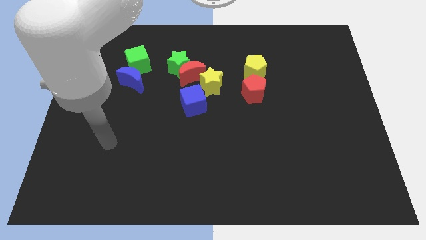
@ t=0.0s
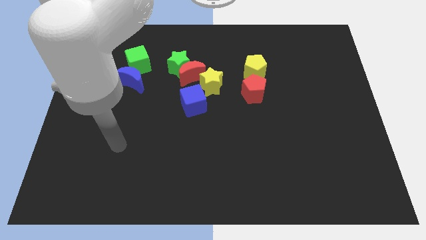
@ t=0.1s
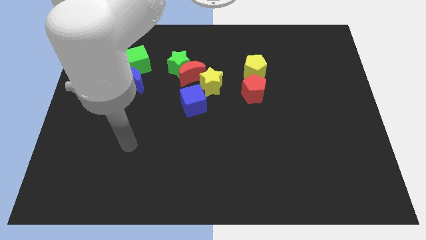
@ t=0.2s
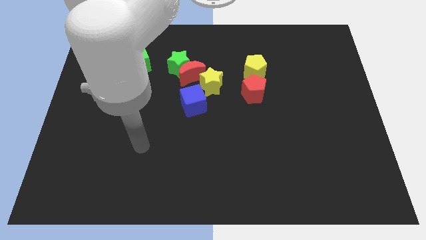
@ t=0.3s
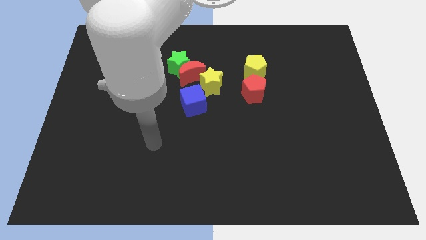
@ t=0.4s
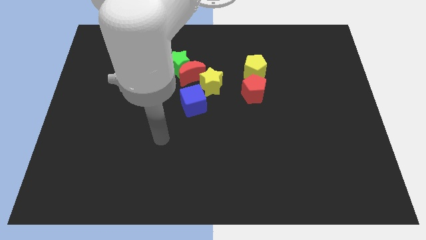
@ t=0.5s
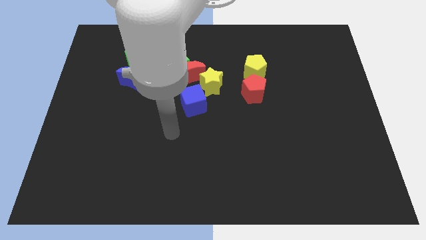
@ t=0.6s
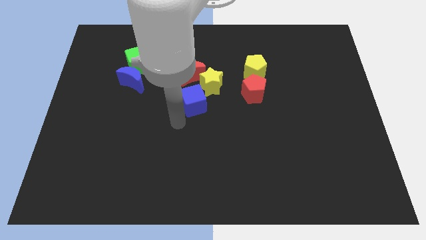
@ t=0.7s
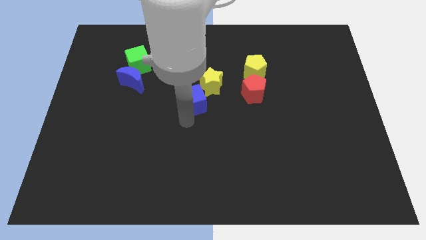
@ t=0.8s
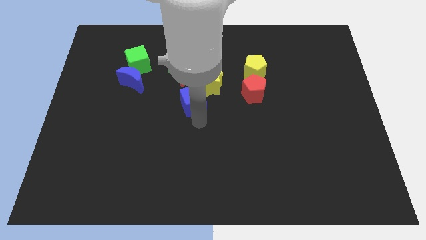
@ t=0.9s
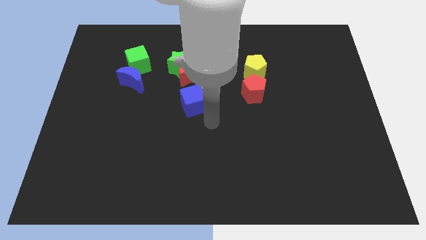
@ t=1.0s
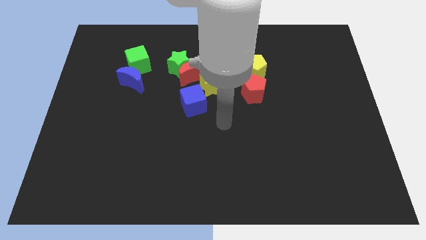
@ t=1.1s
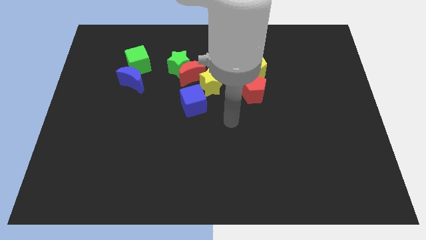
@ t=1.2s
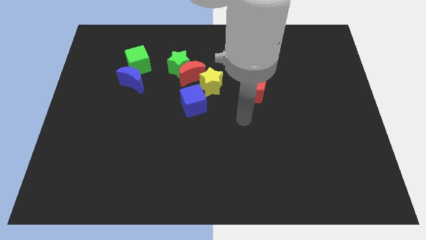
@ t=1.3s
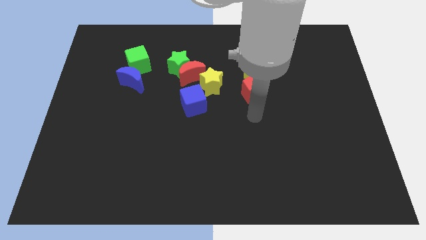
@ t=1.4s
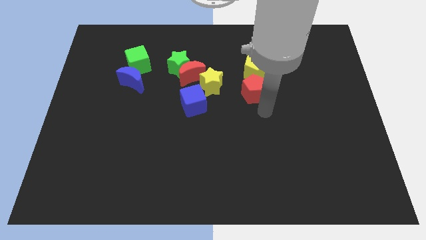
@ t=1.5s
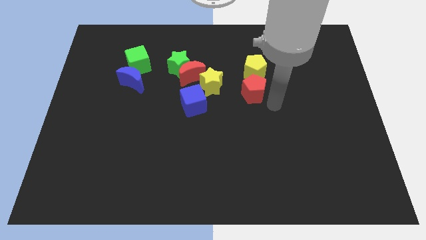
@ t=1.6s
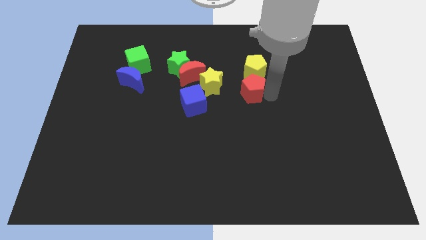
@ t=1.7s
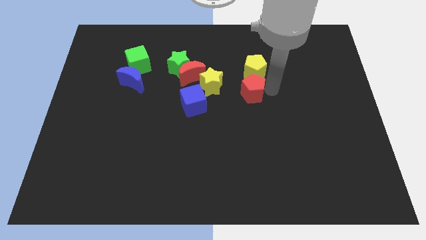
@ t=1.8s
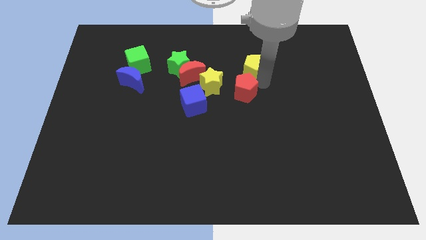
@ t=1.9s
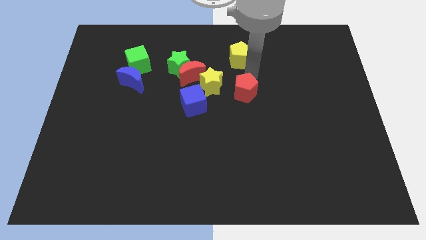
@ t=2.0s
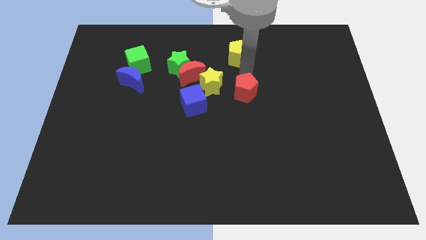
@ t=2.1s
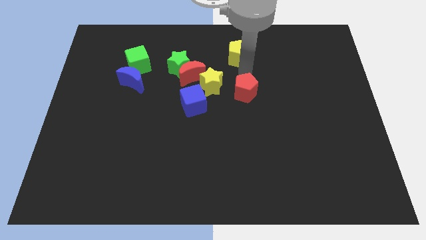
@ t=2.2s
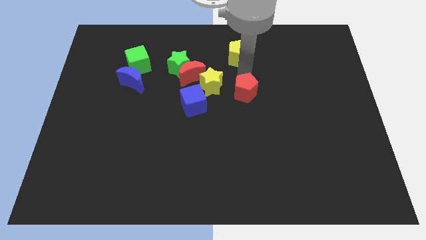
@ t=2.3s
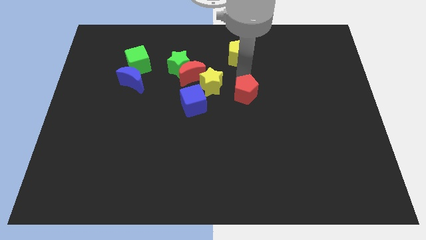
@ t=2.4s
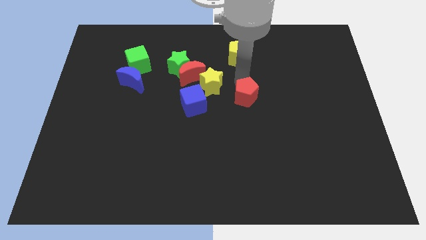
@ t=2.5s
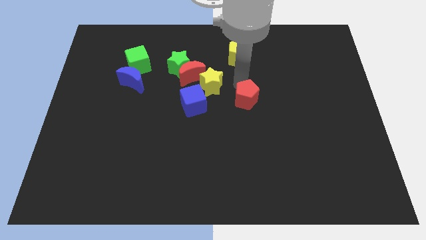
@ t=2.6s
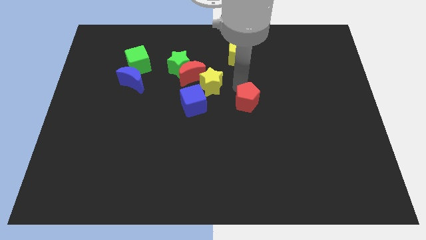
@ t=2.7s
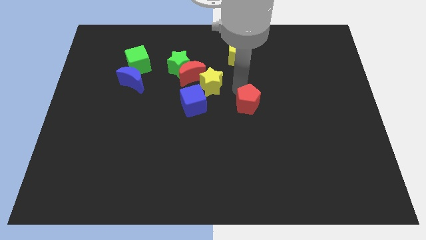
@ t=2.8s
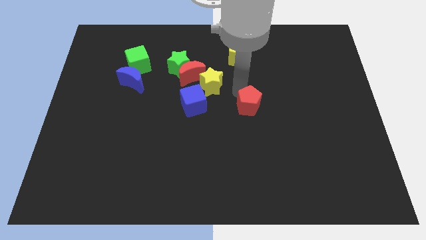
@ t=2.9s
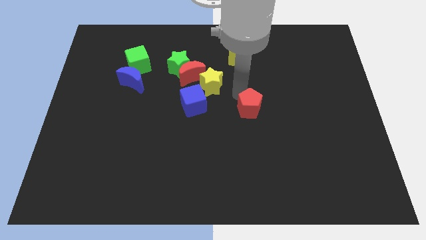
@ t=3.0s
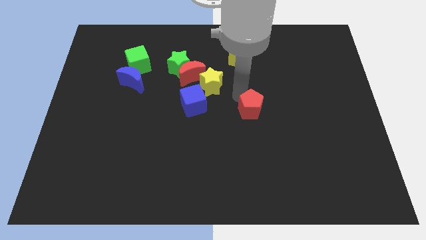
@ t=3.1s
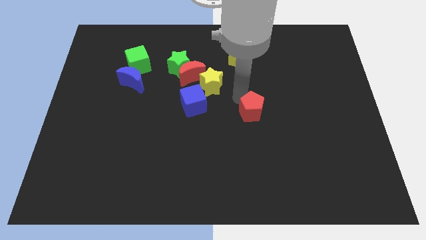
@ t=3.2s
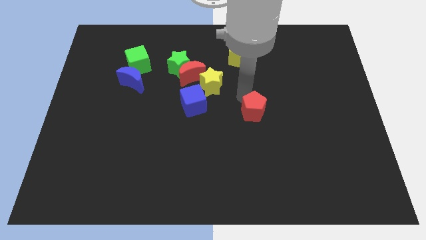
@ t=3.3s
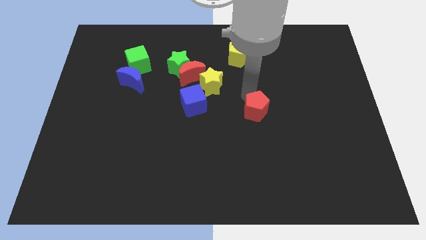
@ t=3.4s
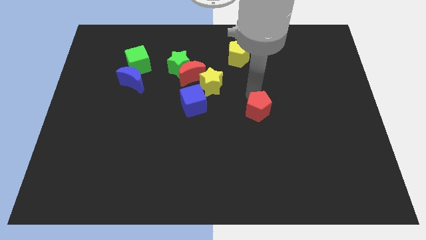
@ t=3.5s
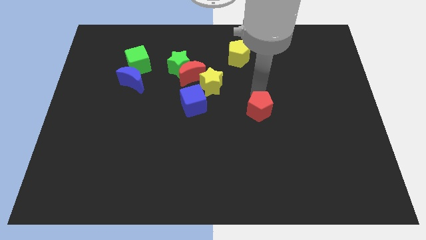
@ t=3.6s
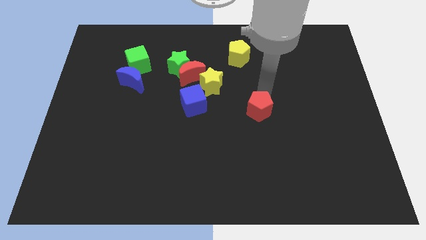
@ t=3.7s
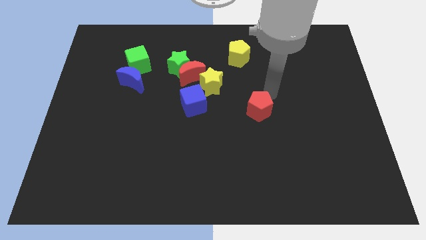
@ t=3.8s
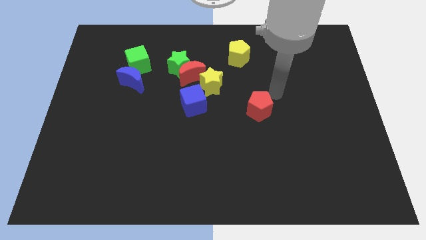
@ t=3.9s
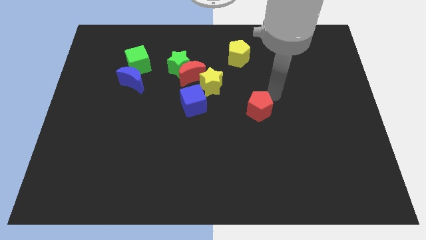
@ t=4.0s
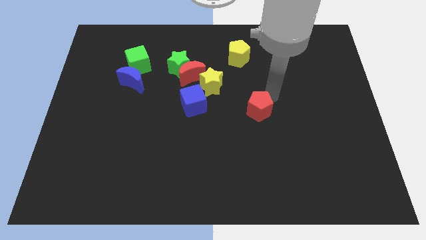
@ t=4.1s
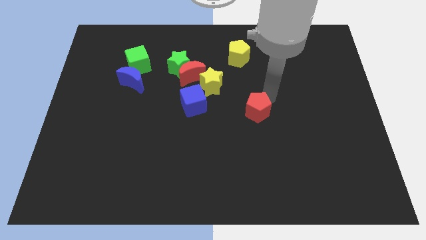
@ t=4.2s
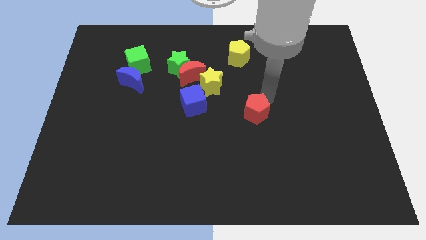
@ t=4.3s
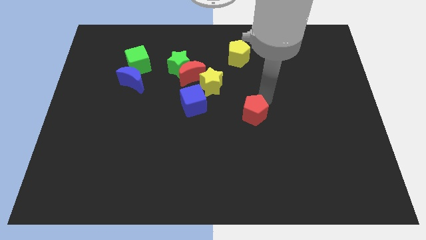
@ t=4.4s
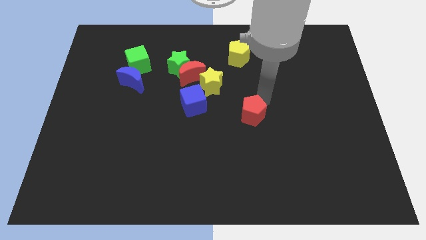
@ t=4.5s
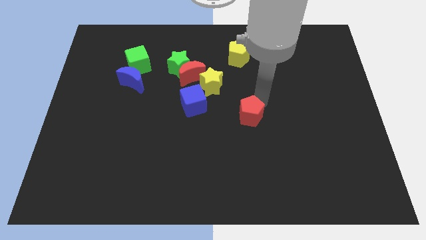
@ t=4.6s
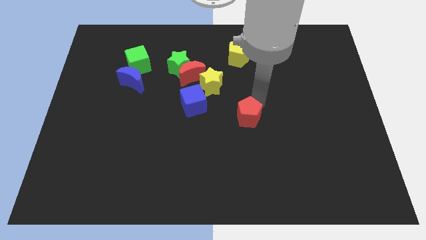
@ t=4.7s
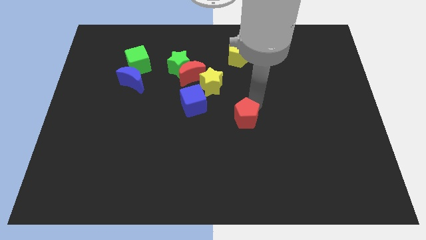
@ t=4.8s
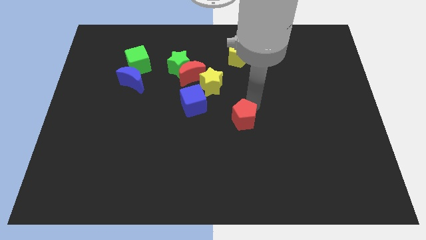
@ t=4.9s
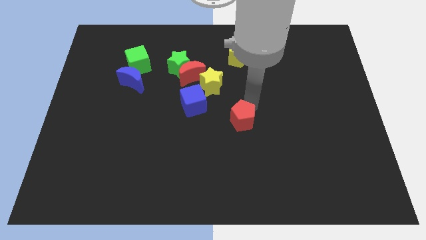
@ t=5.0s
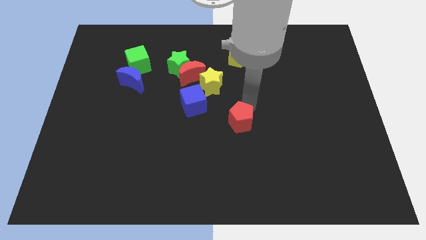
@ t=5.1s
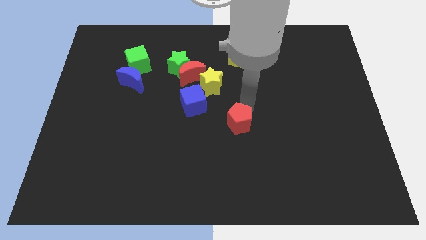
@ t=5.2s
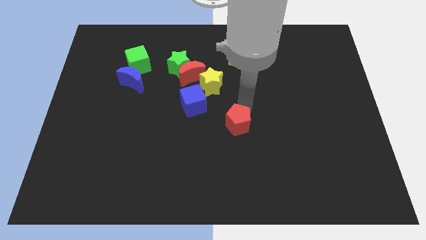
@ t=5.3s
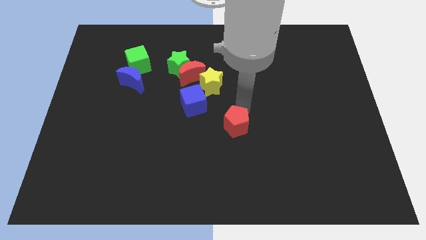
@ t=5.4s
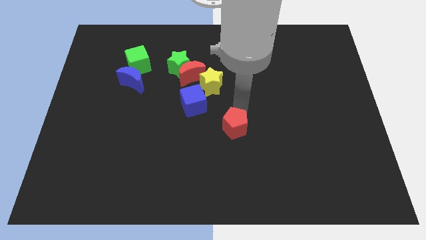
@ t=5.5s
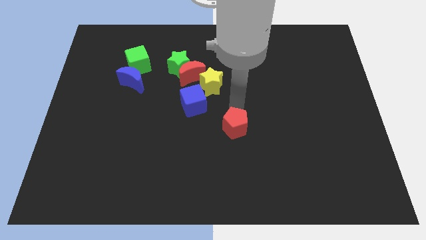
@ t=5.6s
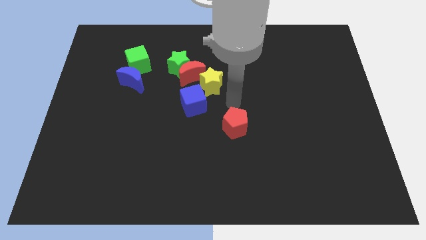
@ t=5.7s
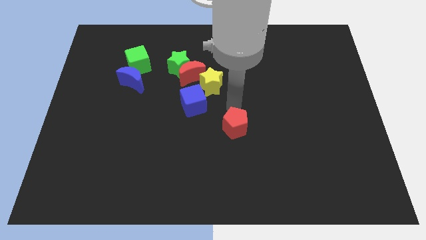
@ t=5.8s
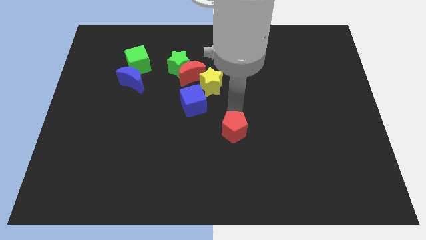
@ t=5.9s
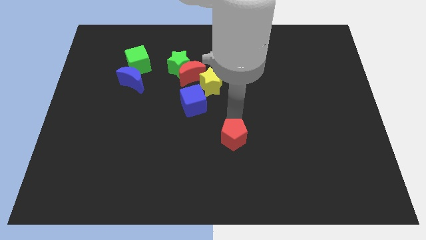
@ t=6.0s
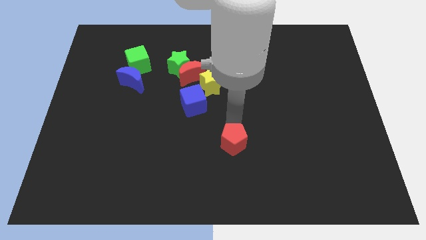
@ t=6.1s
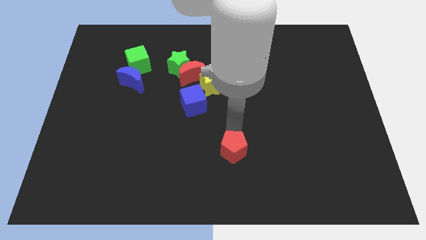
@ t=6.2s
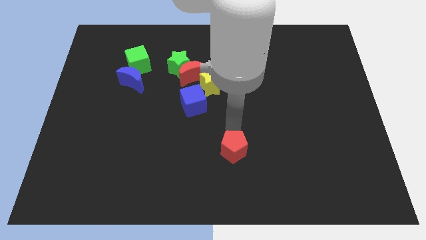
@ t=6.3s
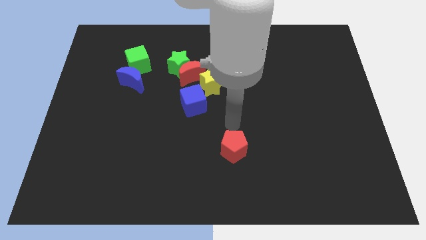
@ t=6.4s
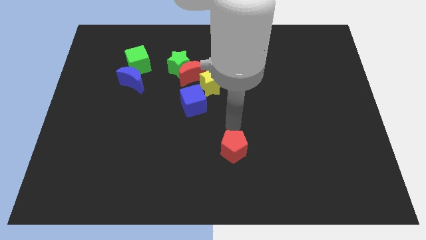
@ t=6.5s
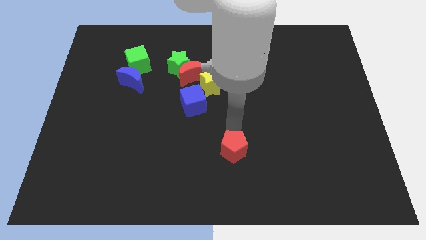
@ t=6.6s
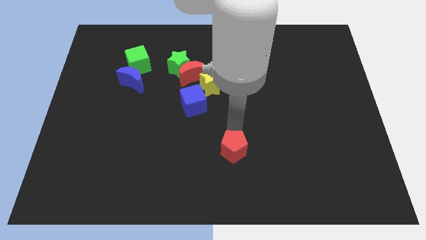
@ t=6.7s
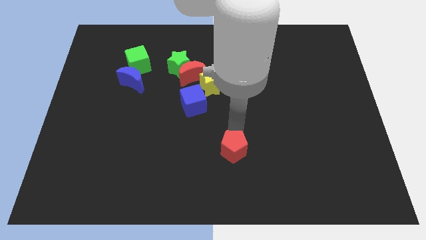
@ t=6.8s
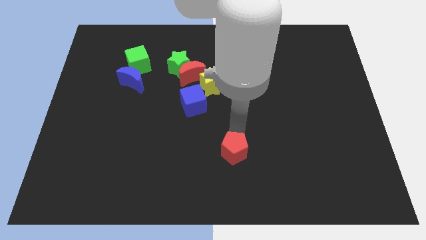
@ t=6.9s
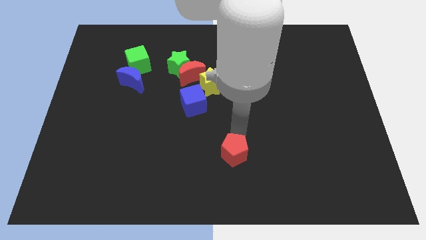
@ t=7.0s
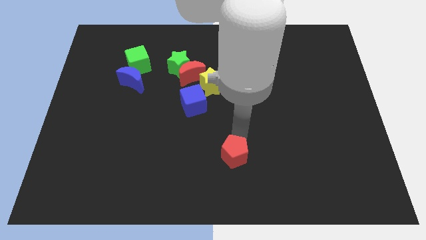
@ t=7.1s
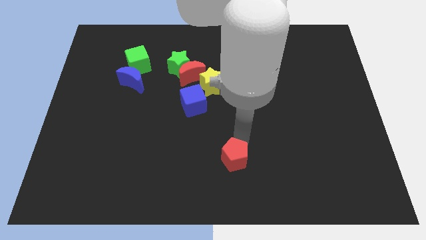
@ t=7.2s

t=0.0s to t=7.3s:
put the red pentagon to the bottom side
